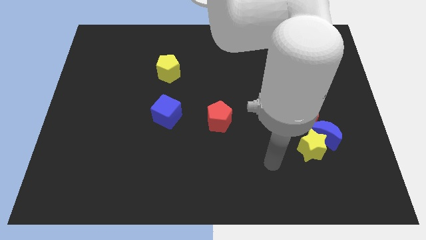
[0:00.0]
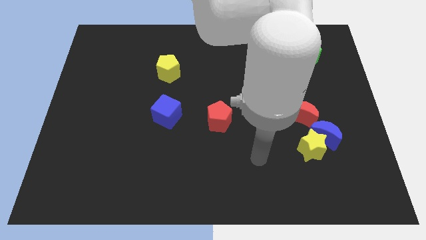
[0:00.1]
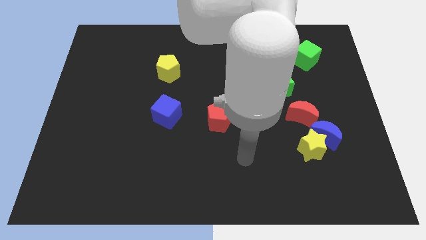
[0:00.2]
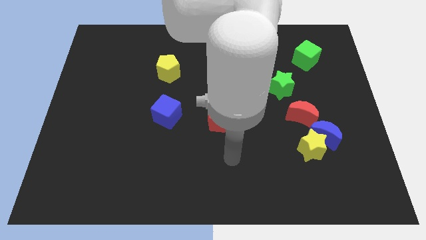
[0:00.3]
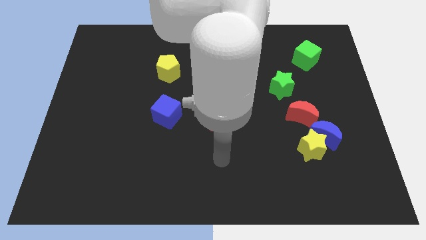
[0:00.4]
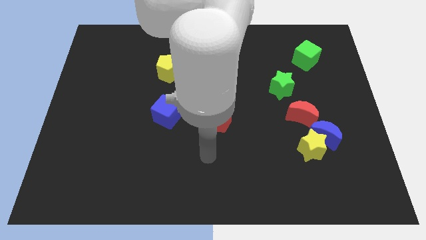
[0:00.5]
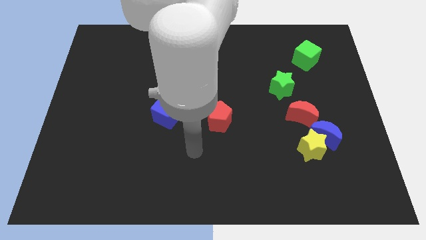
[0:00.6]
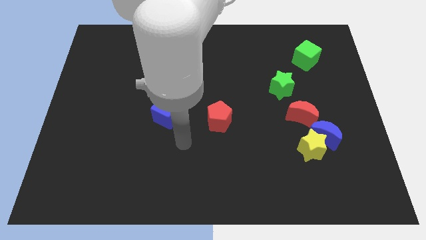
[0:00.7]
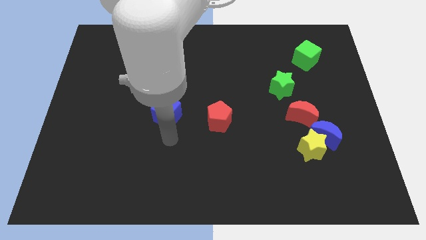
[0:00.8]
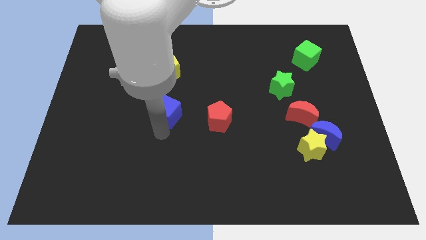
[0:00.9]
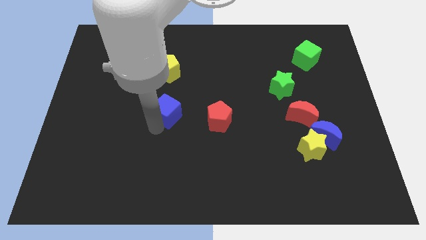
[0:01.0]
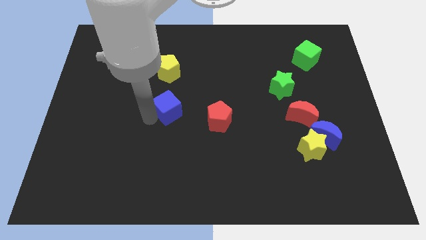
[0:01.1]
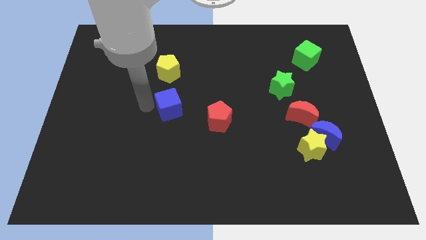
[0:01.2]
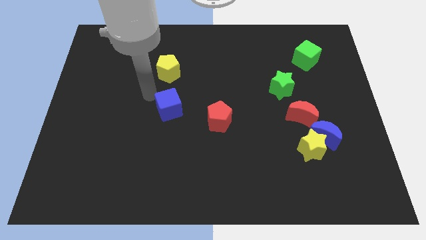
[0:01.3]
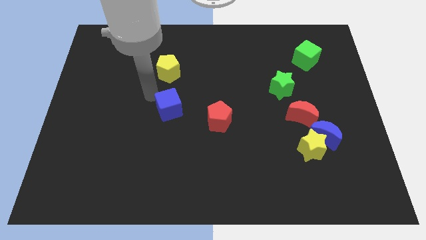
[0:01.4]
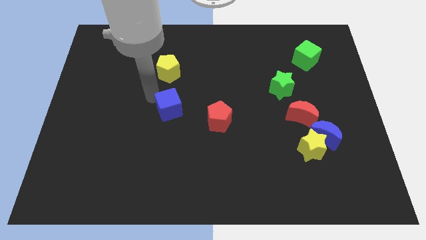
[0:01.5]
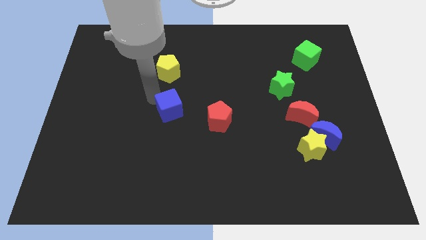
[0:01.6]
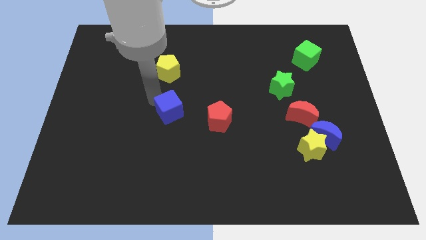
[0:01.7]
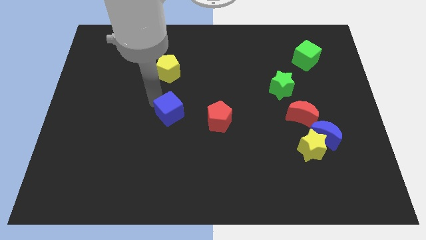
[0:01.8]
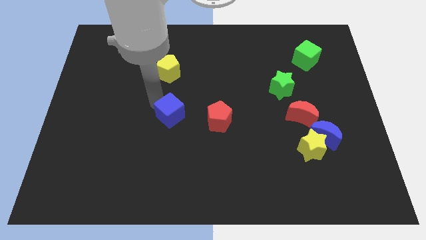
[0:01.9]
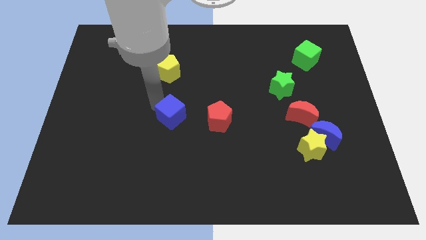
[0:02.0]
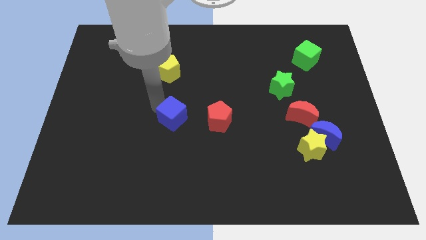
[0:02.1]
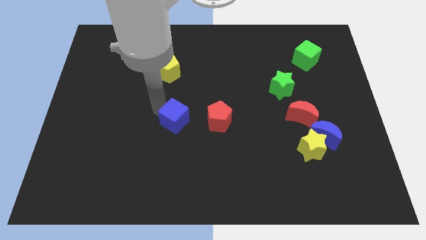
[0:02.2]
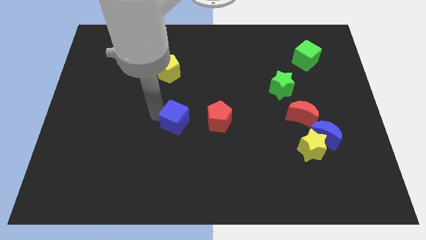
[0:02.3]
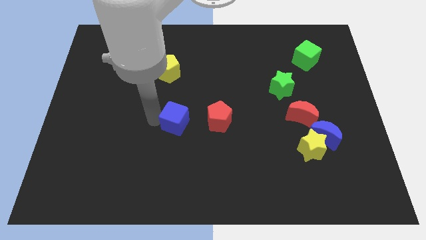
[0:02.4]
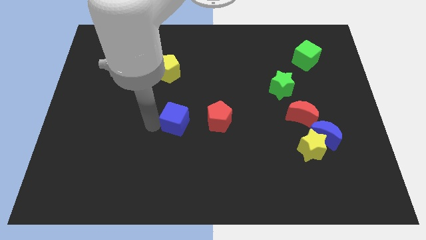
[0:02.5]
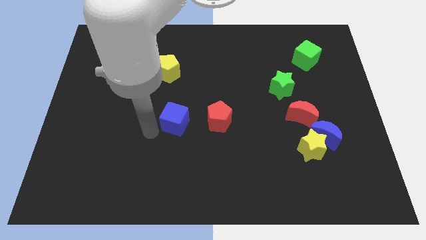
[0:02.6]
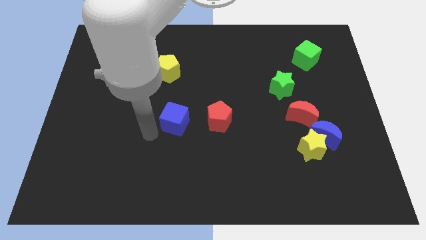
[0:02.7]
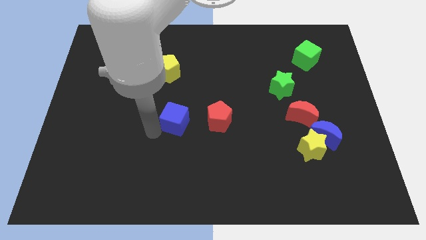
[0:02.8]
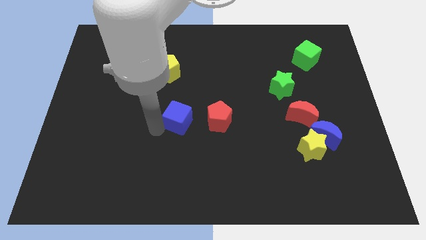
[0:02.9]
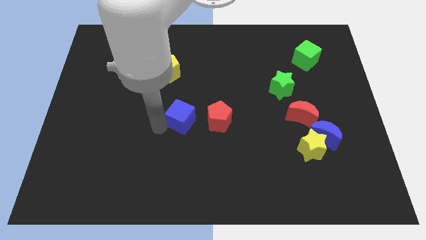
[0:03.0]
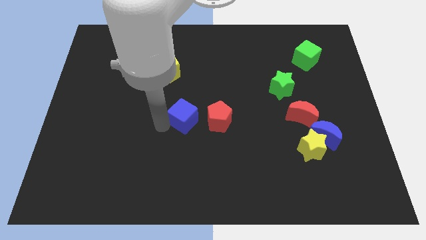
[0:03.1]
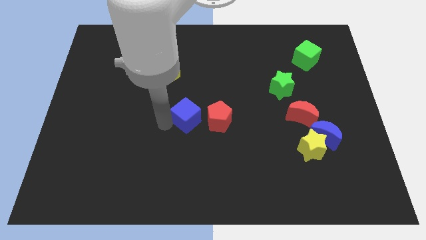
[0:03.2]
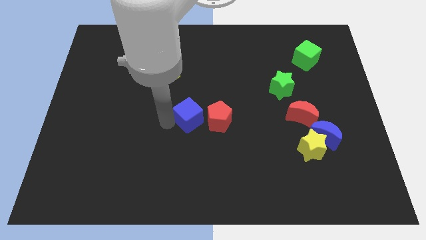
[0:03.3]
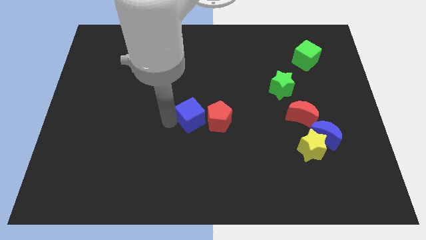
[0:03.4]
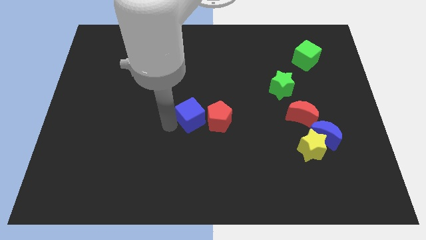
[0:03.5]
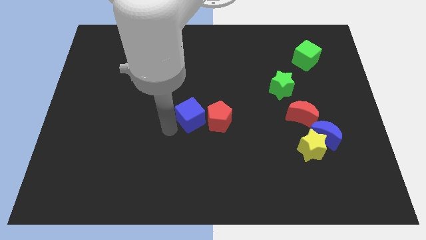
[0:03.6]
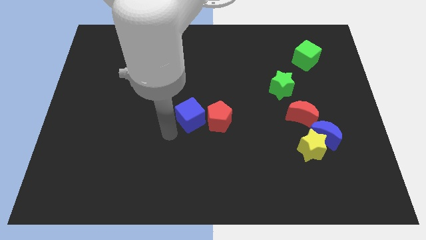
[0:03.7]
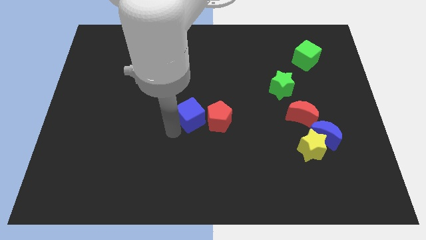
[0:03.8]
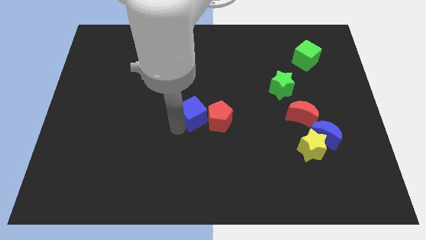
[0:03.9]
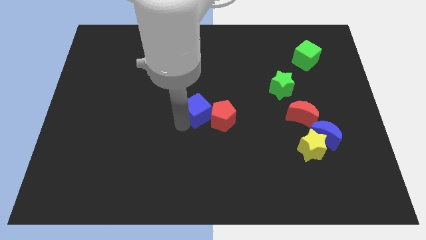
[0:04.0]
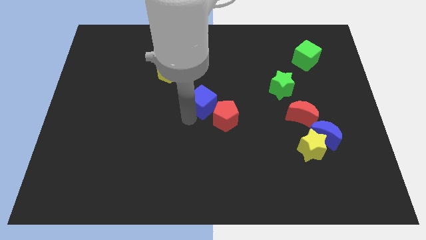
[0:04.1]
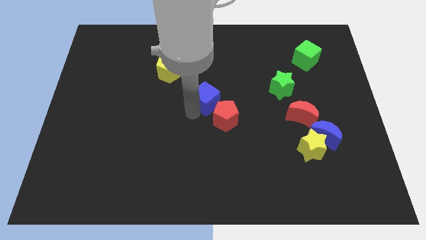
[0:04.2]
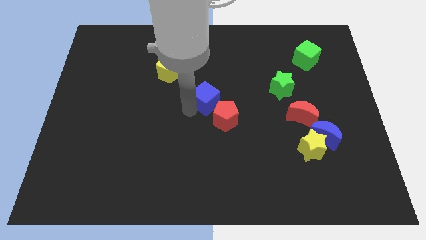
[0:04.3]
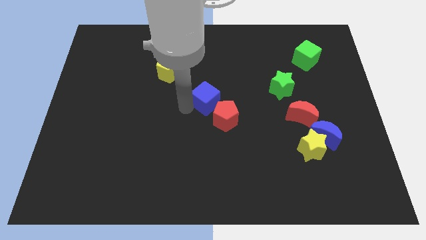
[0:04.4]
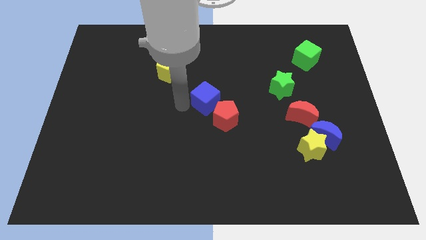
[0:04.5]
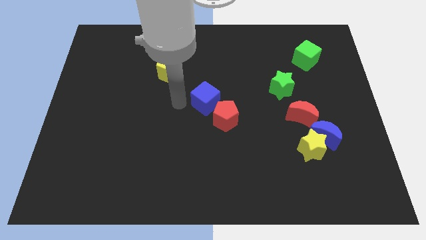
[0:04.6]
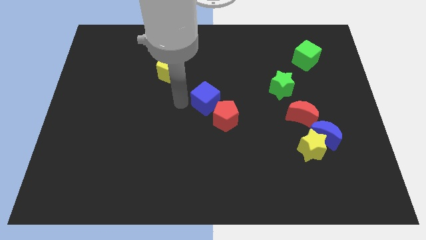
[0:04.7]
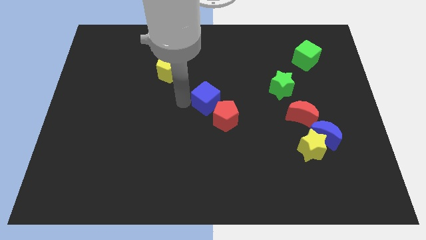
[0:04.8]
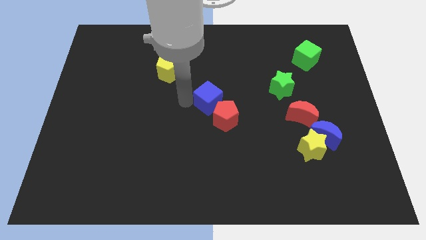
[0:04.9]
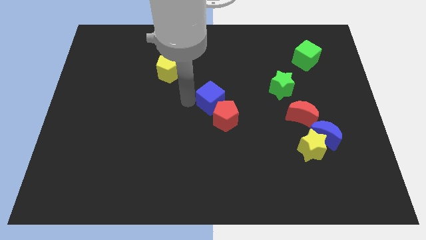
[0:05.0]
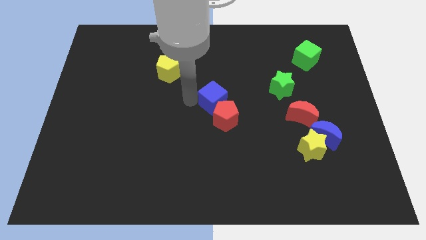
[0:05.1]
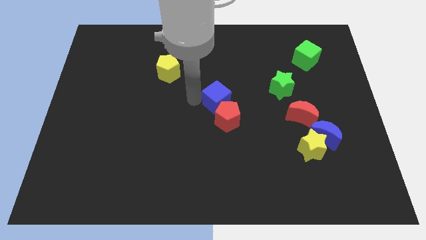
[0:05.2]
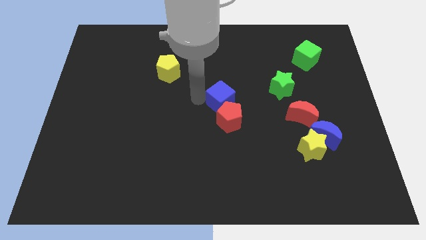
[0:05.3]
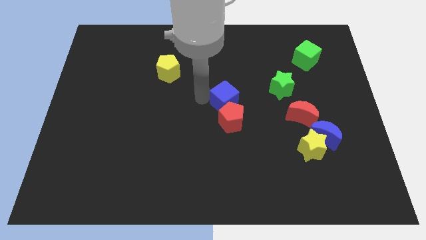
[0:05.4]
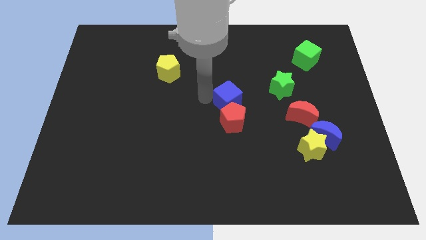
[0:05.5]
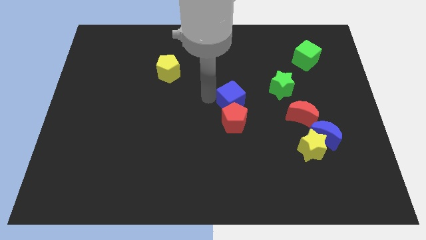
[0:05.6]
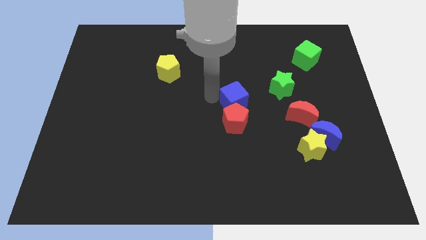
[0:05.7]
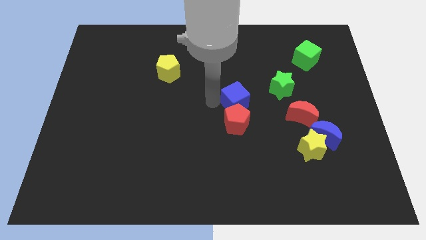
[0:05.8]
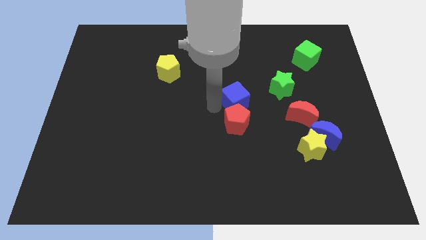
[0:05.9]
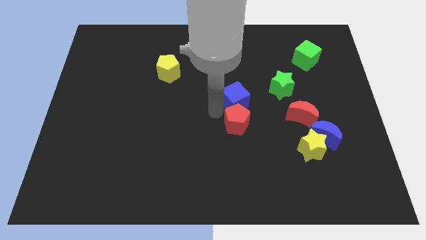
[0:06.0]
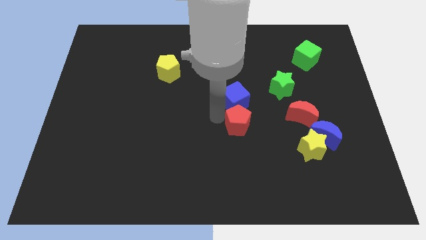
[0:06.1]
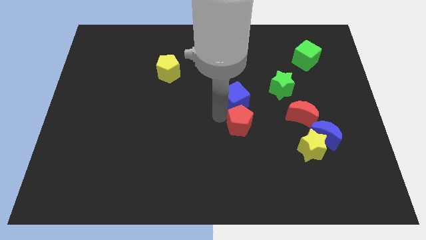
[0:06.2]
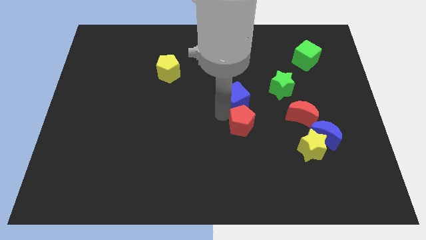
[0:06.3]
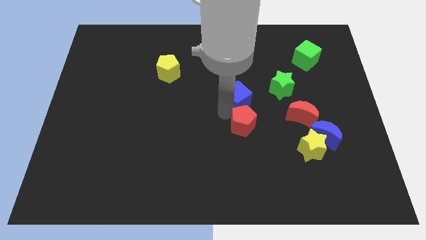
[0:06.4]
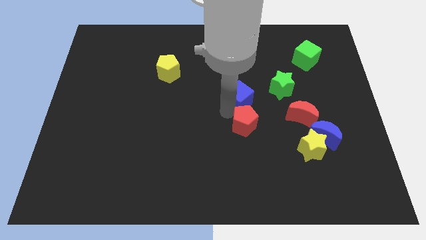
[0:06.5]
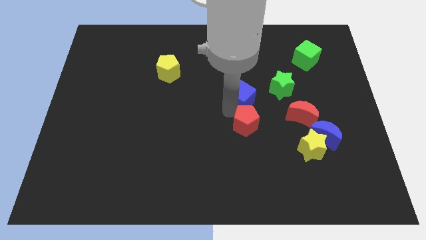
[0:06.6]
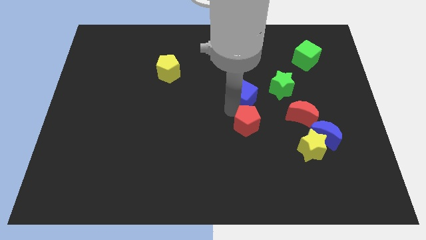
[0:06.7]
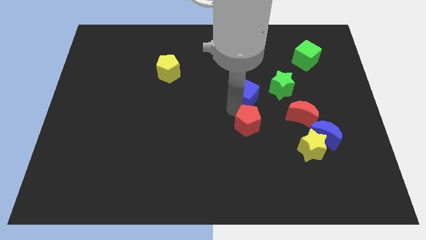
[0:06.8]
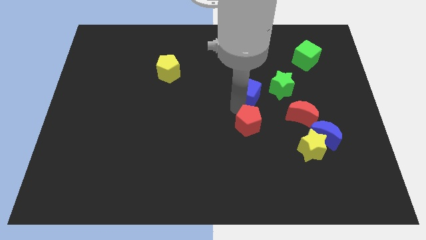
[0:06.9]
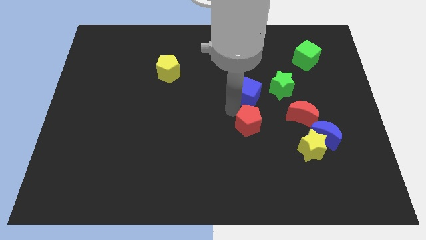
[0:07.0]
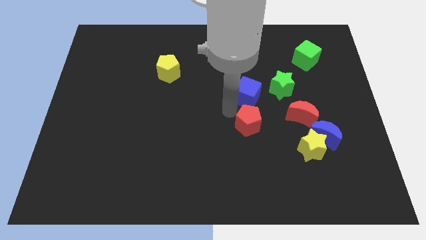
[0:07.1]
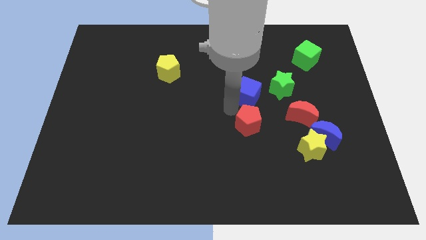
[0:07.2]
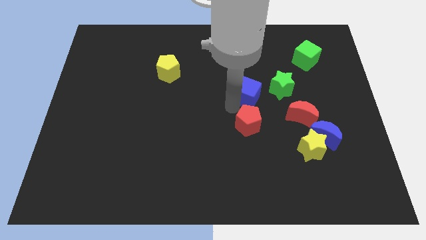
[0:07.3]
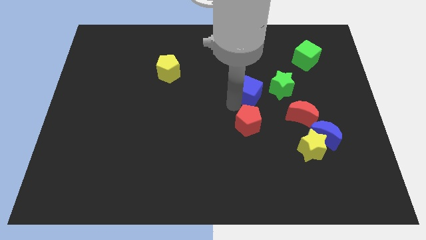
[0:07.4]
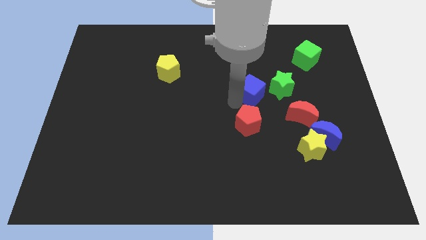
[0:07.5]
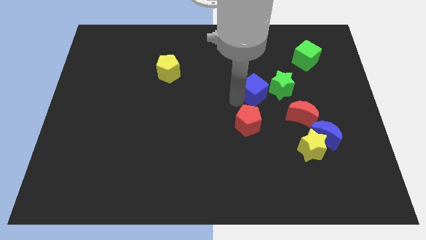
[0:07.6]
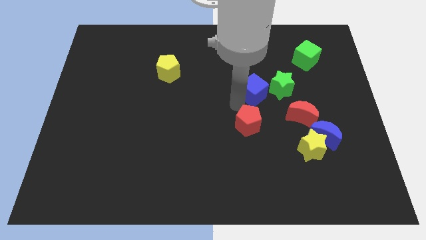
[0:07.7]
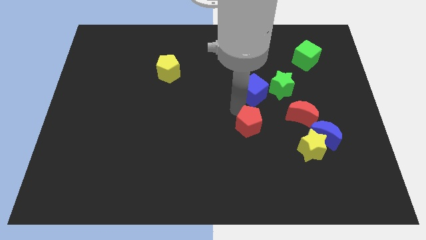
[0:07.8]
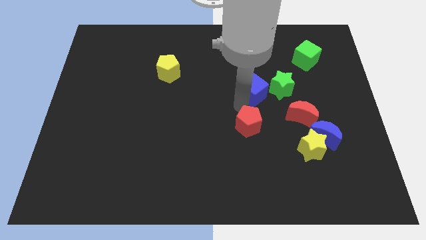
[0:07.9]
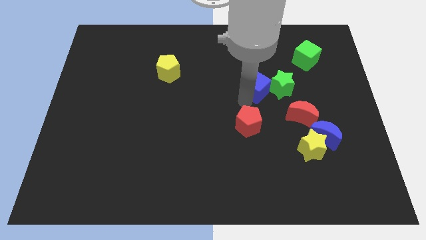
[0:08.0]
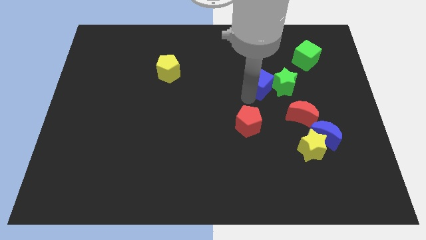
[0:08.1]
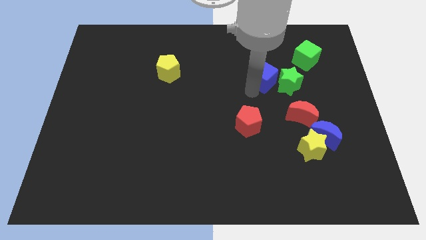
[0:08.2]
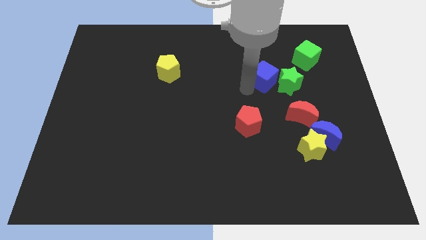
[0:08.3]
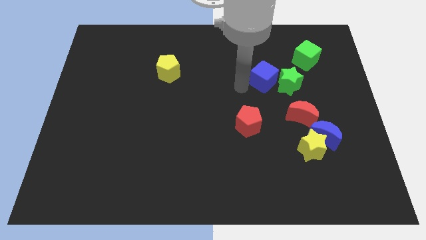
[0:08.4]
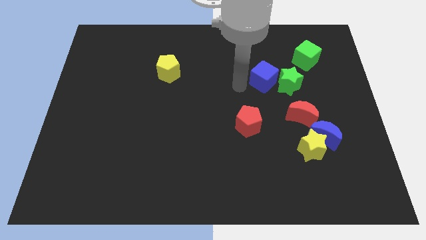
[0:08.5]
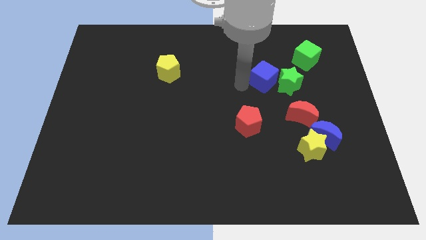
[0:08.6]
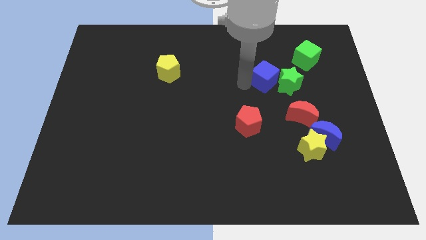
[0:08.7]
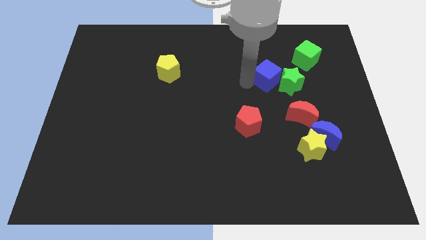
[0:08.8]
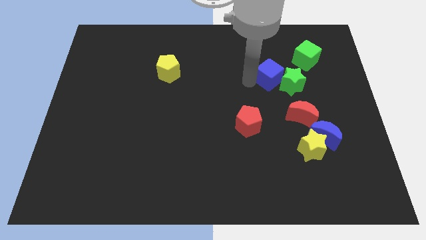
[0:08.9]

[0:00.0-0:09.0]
move the blue cube to the bottom left side of the green cube
